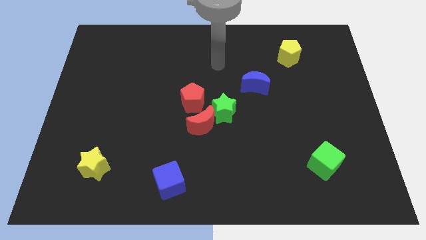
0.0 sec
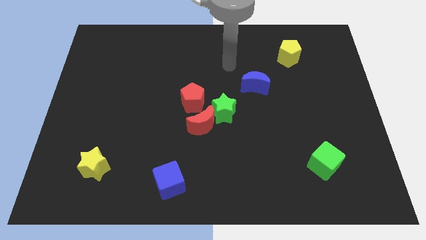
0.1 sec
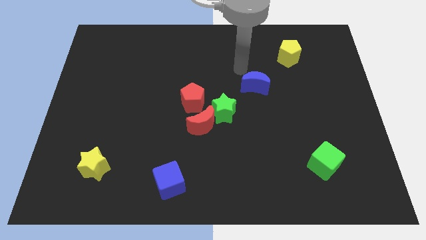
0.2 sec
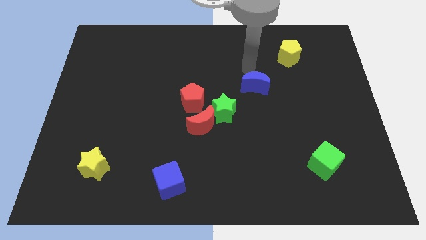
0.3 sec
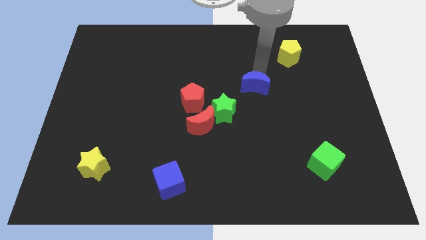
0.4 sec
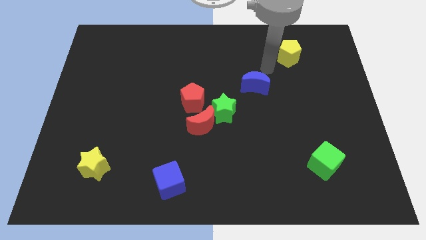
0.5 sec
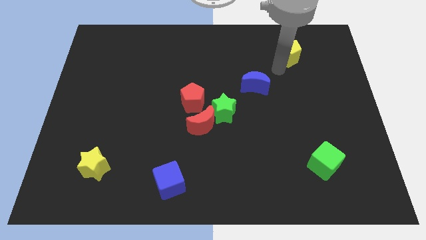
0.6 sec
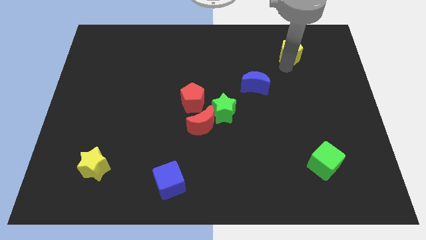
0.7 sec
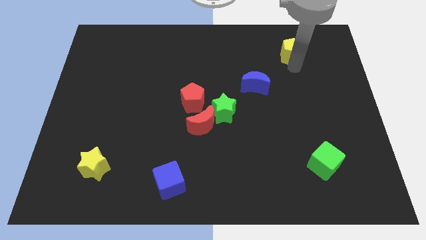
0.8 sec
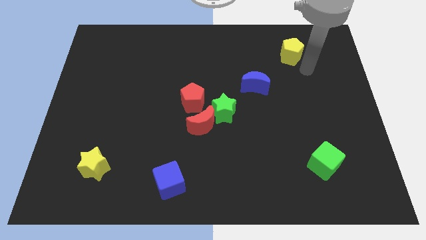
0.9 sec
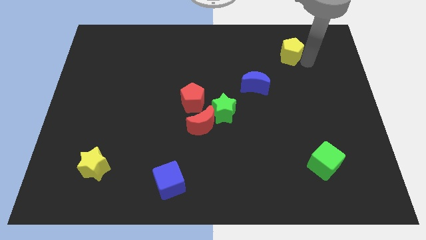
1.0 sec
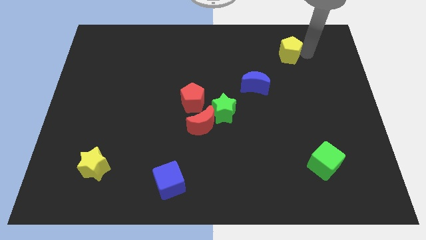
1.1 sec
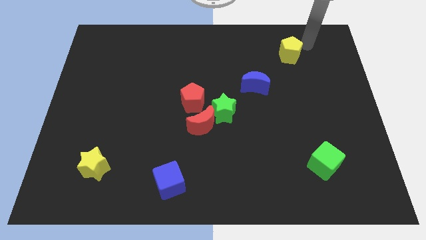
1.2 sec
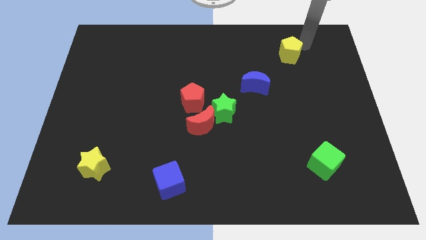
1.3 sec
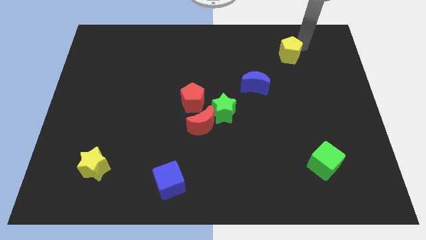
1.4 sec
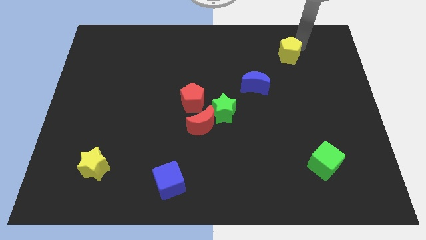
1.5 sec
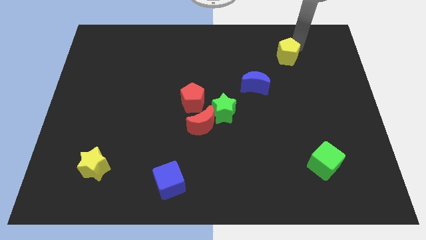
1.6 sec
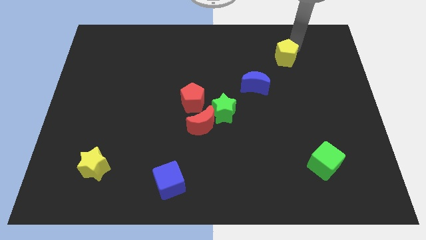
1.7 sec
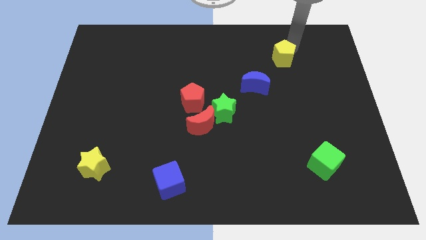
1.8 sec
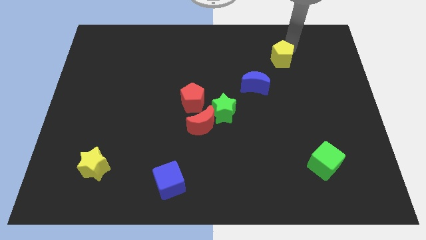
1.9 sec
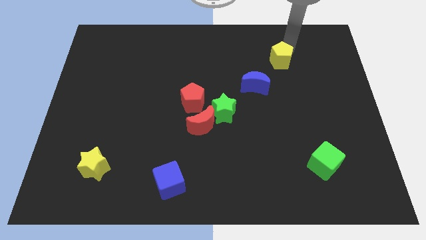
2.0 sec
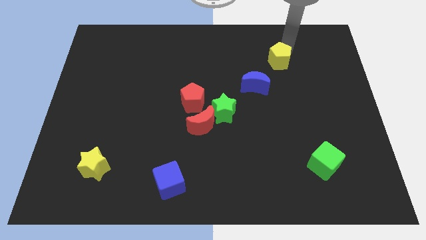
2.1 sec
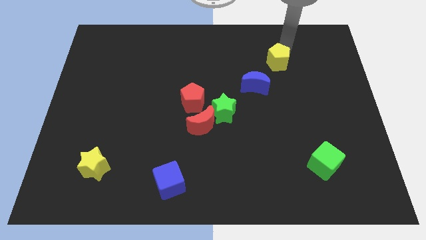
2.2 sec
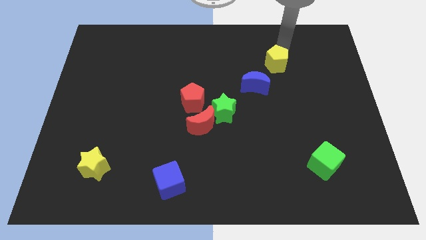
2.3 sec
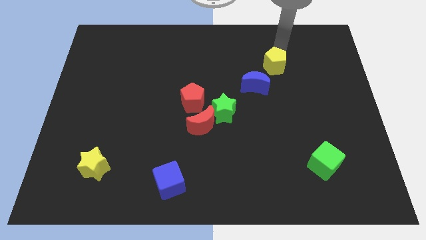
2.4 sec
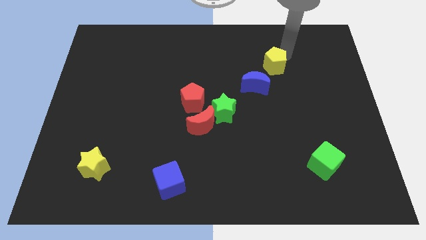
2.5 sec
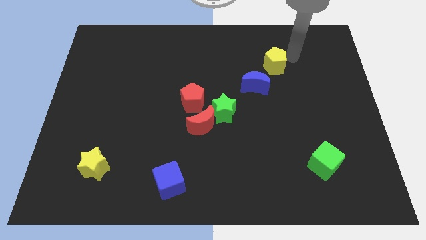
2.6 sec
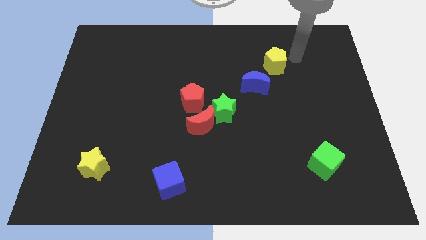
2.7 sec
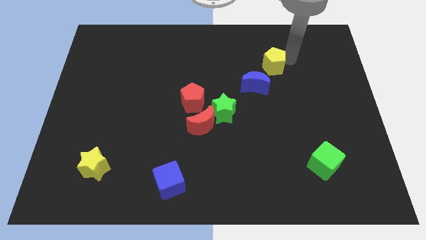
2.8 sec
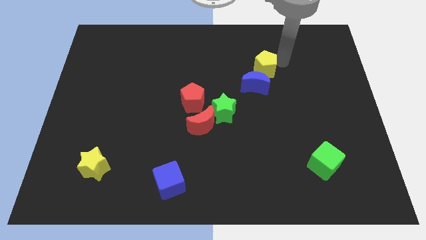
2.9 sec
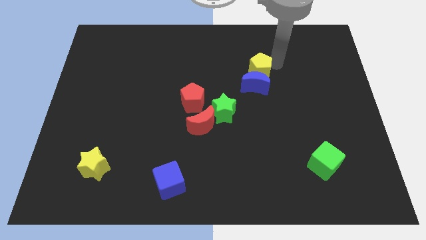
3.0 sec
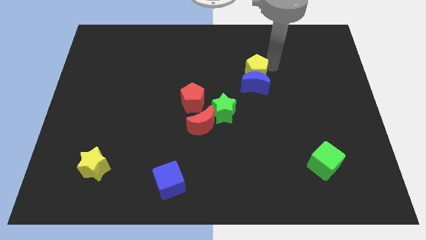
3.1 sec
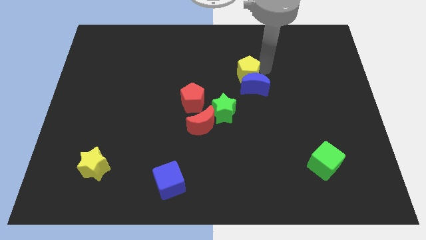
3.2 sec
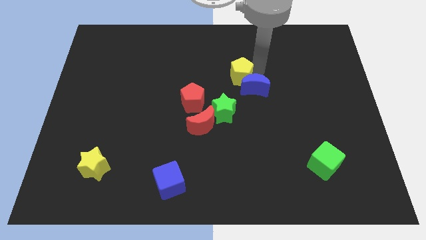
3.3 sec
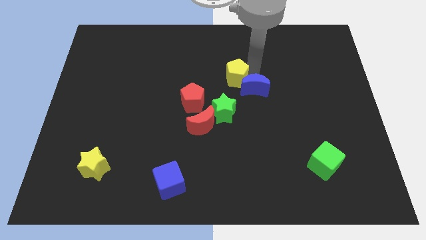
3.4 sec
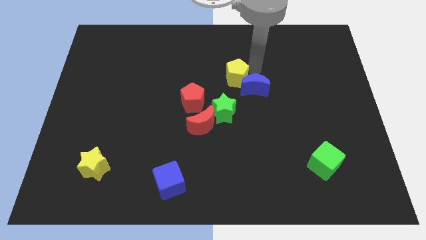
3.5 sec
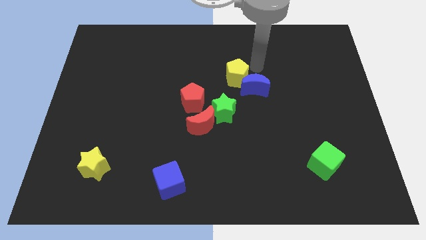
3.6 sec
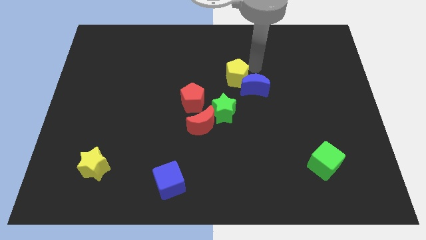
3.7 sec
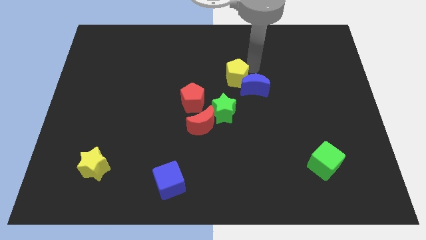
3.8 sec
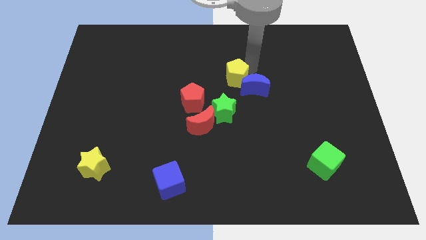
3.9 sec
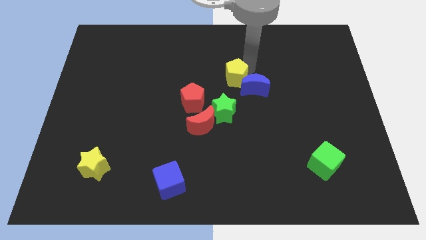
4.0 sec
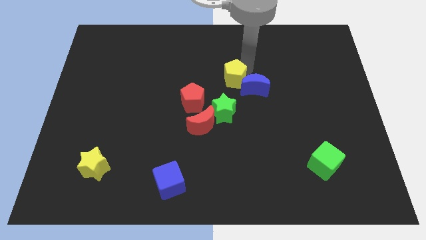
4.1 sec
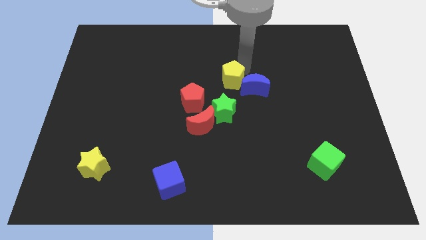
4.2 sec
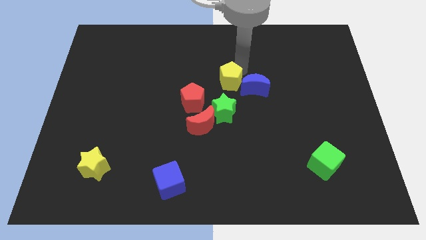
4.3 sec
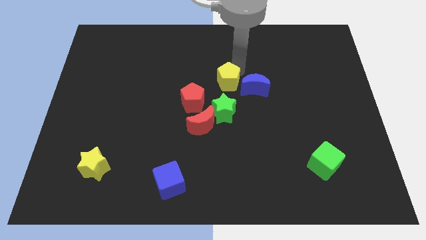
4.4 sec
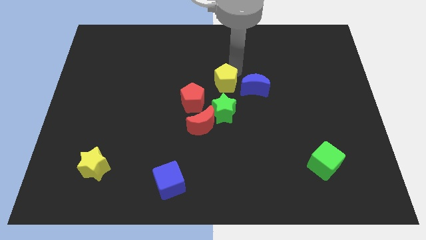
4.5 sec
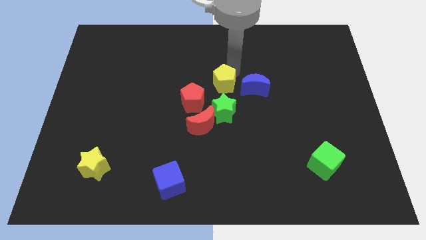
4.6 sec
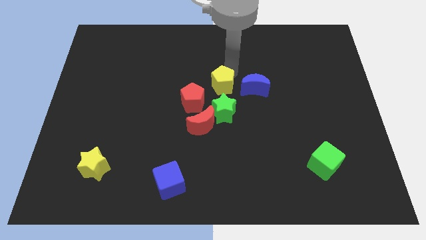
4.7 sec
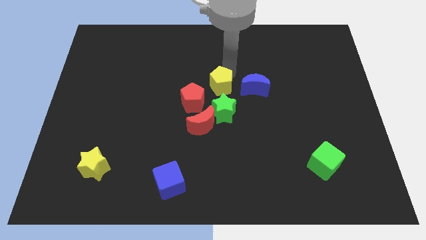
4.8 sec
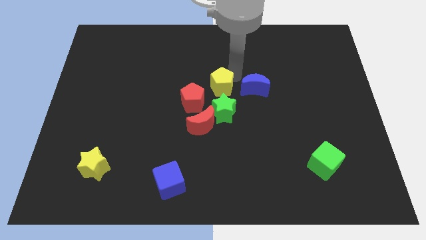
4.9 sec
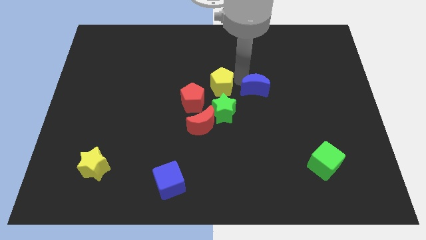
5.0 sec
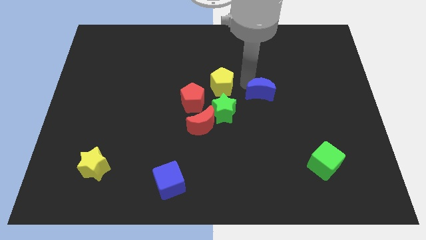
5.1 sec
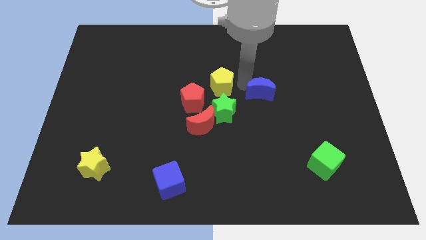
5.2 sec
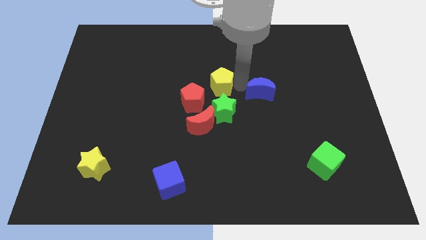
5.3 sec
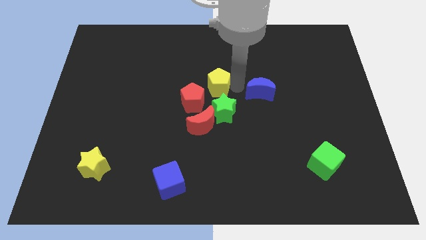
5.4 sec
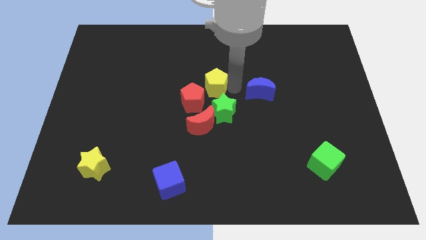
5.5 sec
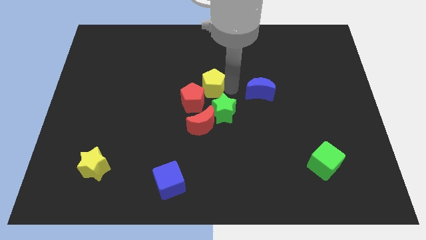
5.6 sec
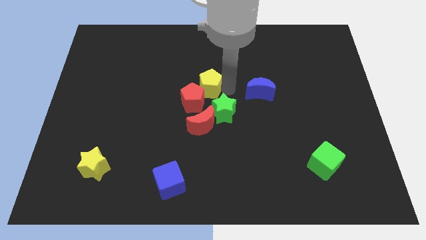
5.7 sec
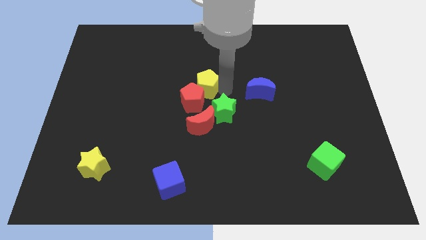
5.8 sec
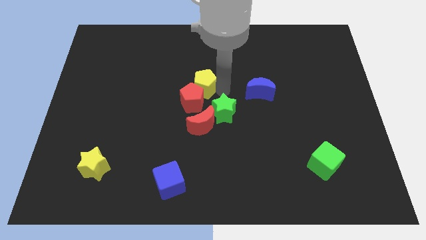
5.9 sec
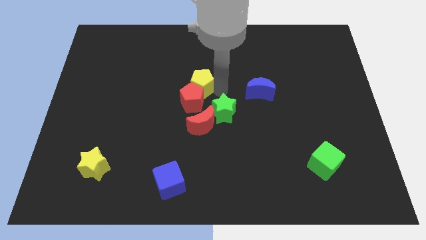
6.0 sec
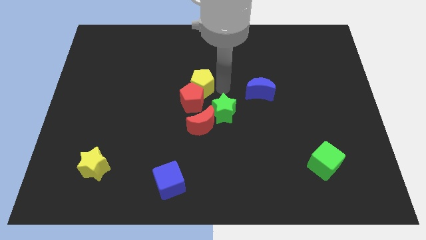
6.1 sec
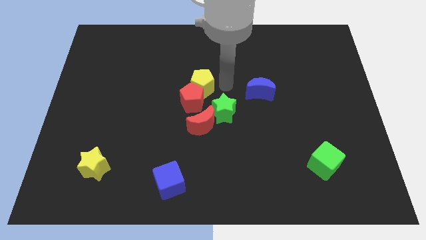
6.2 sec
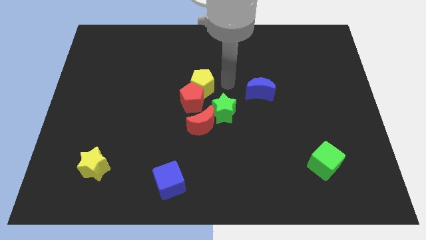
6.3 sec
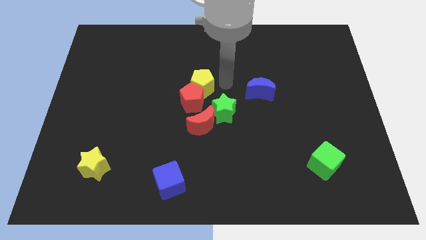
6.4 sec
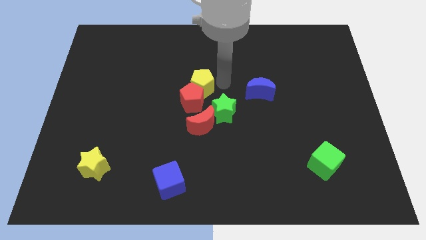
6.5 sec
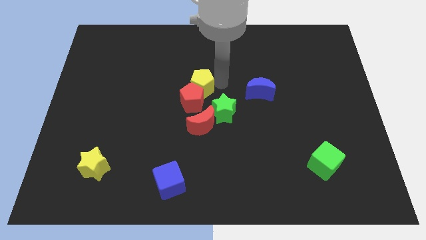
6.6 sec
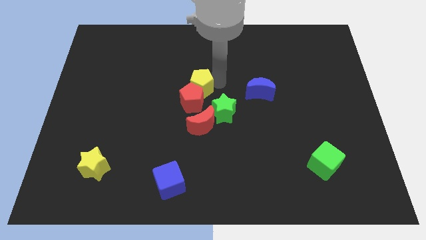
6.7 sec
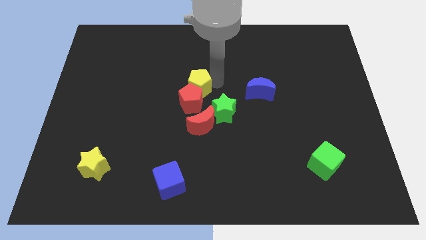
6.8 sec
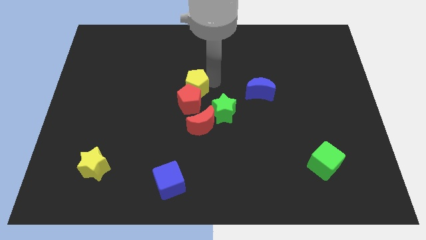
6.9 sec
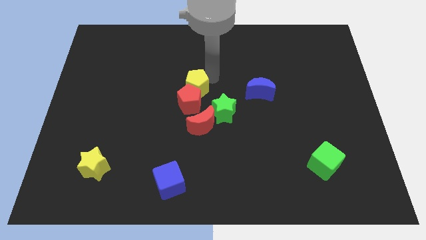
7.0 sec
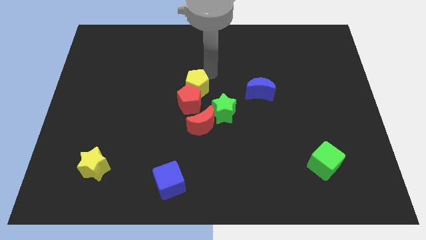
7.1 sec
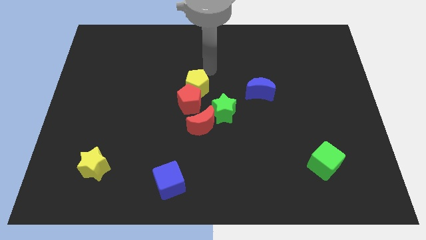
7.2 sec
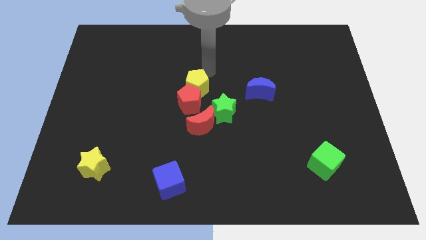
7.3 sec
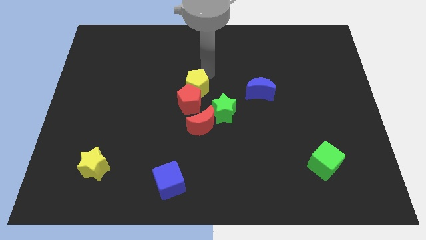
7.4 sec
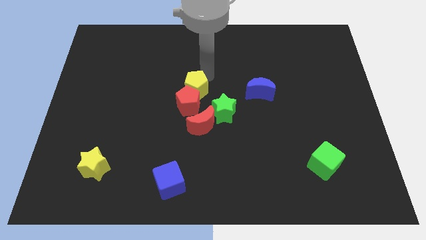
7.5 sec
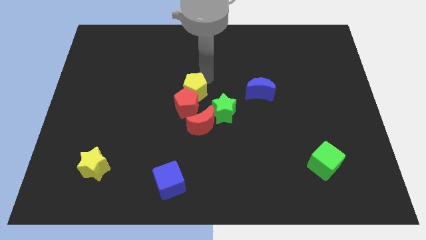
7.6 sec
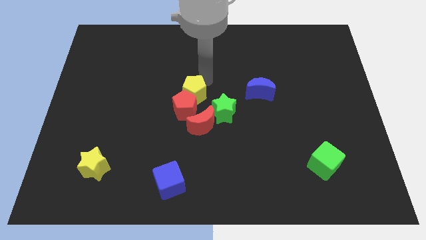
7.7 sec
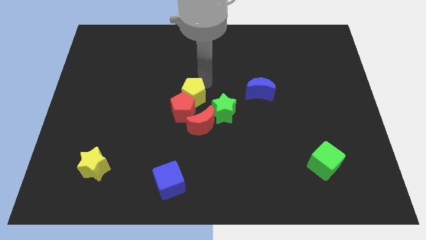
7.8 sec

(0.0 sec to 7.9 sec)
move the yellow pentagon to the top left of the red moon
